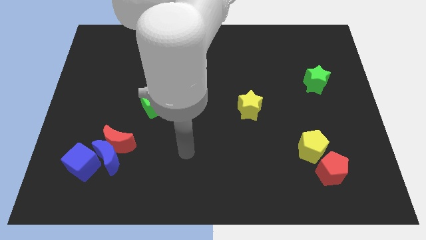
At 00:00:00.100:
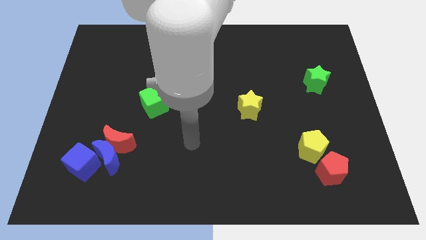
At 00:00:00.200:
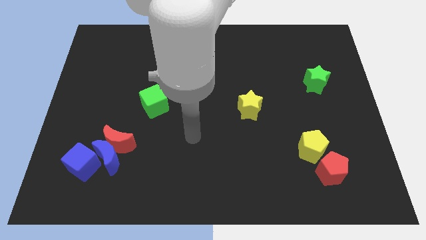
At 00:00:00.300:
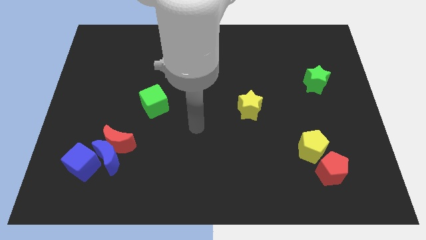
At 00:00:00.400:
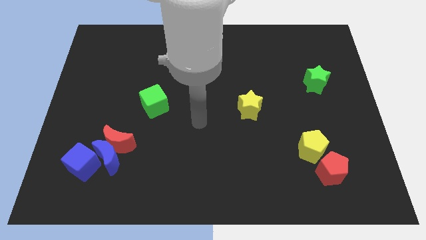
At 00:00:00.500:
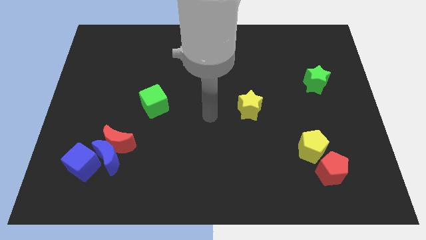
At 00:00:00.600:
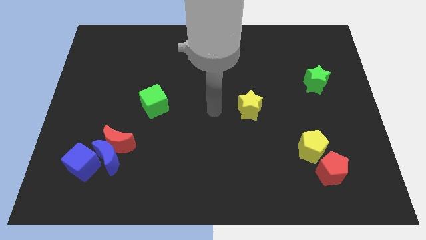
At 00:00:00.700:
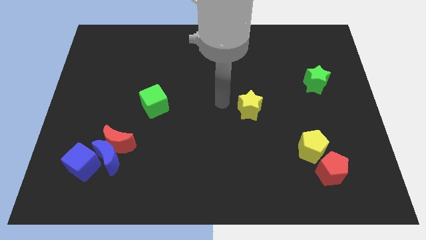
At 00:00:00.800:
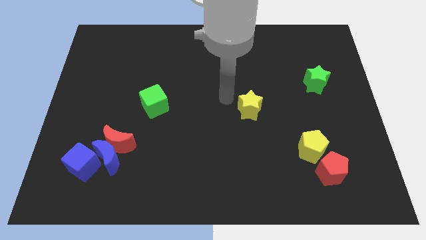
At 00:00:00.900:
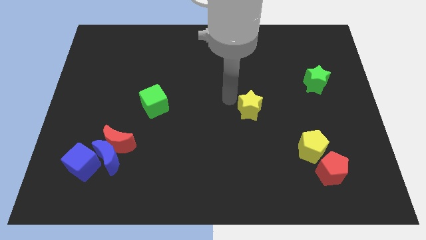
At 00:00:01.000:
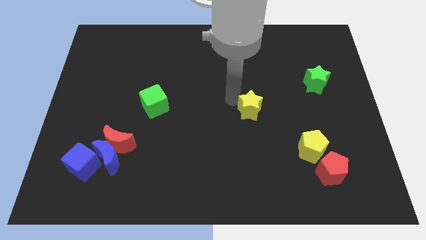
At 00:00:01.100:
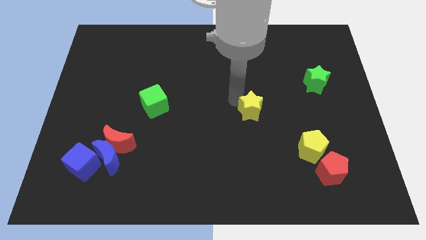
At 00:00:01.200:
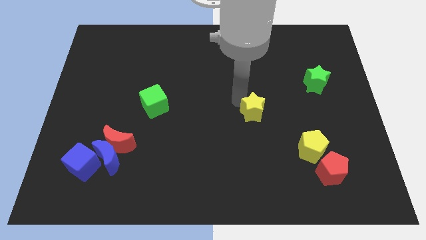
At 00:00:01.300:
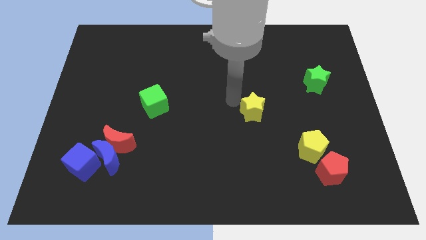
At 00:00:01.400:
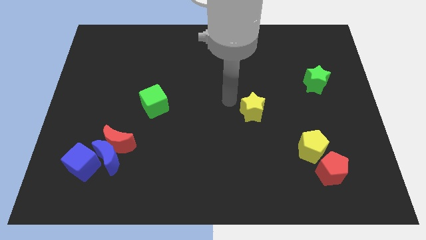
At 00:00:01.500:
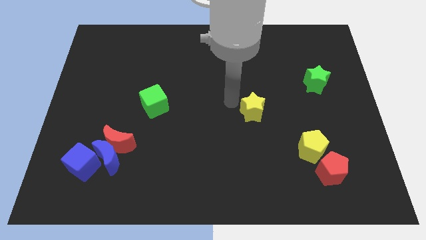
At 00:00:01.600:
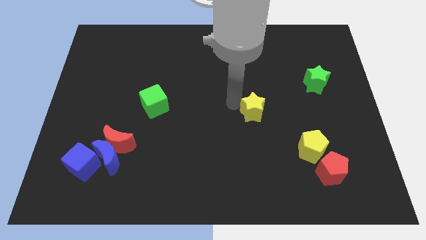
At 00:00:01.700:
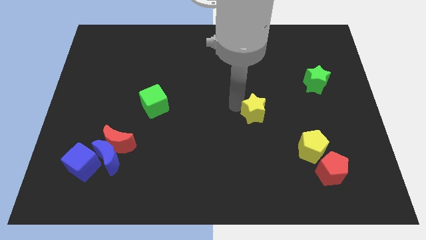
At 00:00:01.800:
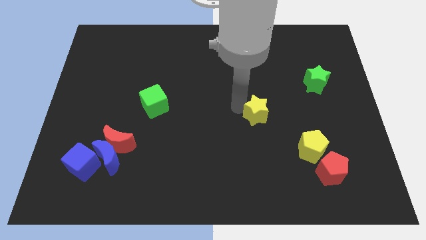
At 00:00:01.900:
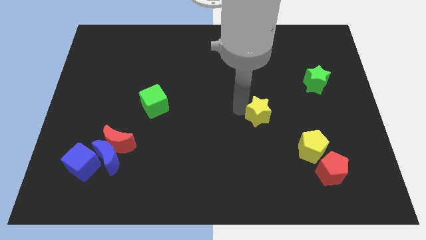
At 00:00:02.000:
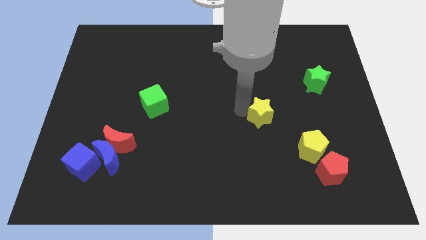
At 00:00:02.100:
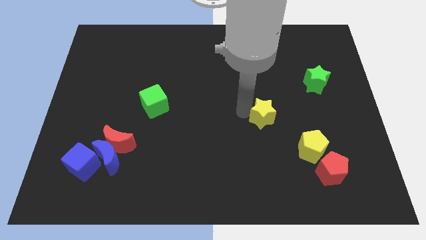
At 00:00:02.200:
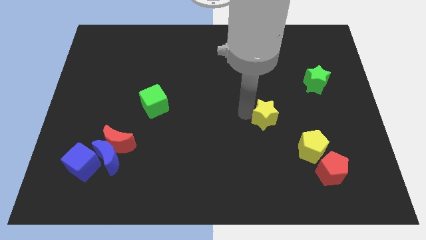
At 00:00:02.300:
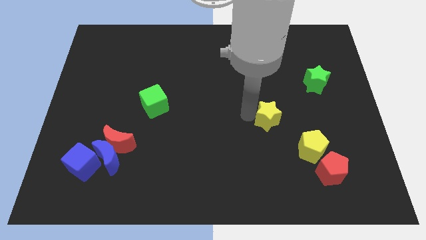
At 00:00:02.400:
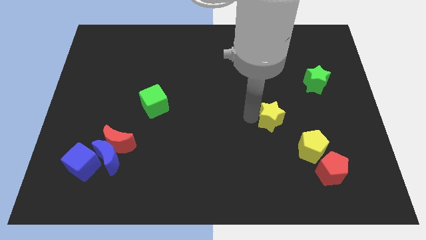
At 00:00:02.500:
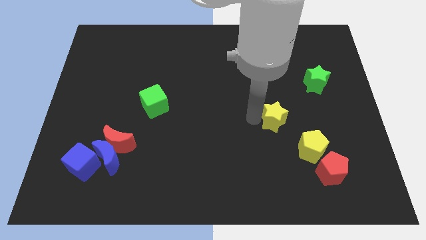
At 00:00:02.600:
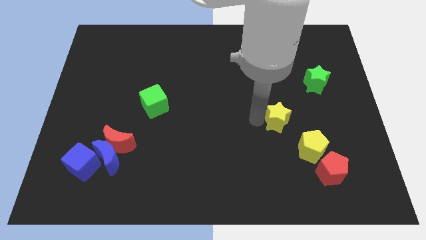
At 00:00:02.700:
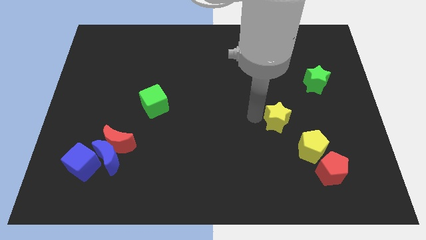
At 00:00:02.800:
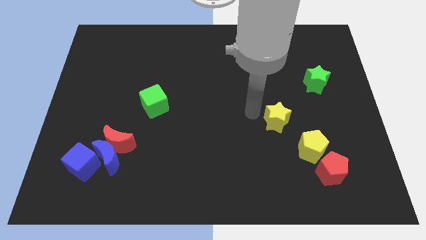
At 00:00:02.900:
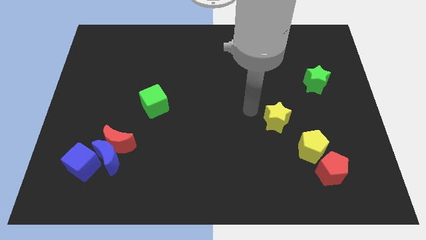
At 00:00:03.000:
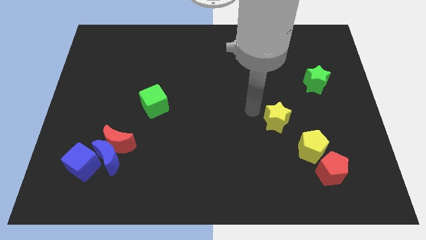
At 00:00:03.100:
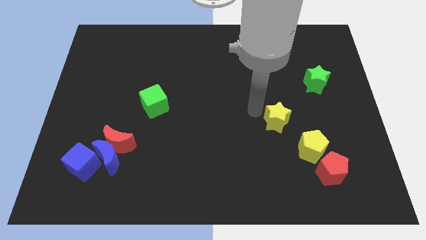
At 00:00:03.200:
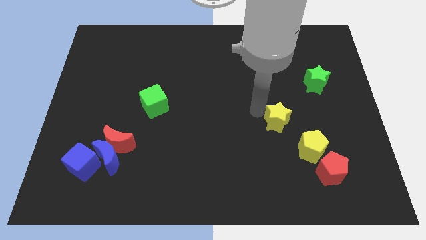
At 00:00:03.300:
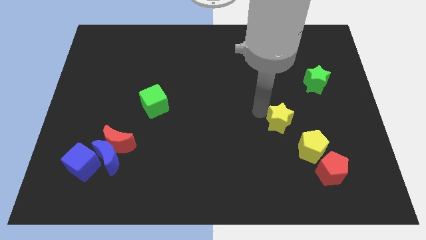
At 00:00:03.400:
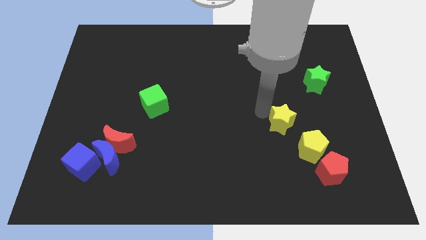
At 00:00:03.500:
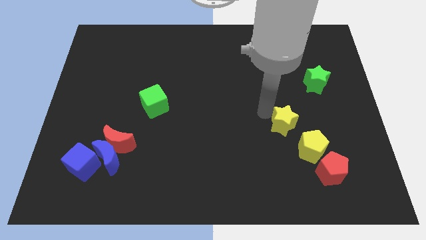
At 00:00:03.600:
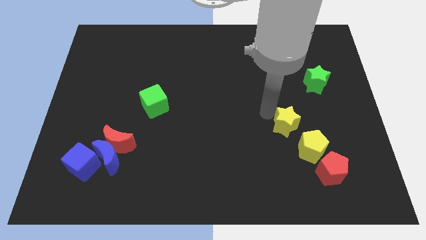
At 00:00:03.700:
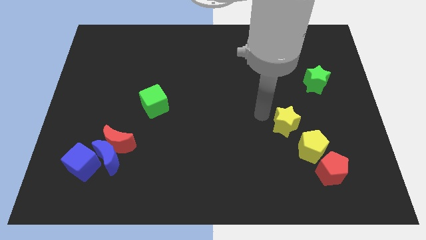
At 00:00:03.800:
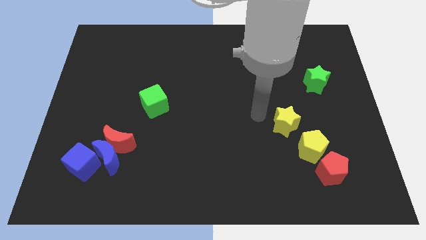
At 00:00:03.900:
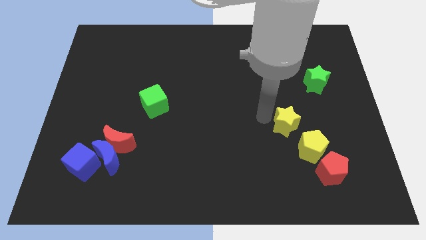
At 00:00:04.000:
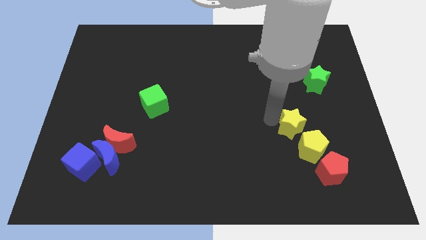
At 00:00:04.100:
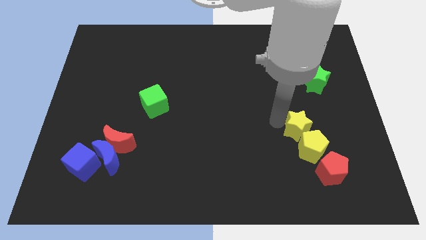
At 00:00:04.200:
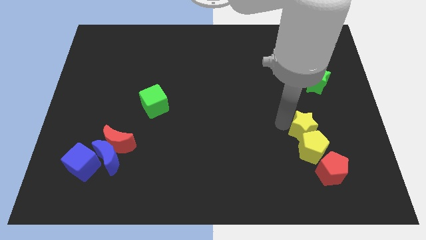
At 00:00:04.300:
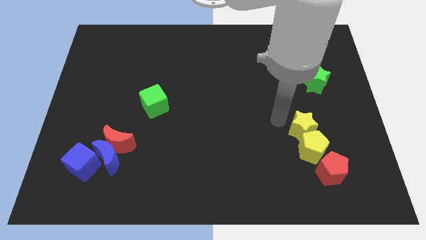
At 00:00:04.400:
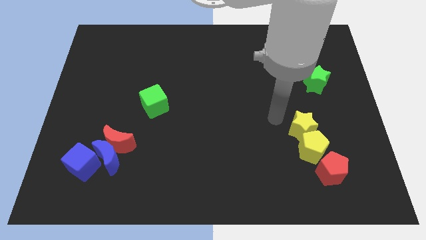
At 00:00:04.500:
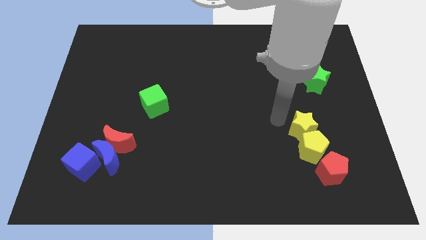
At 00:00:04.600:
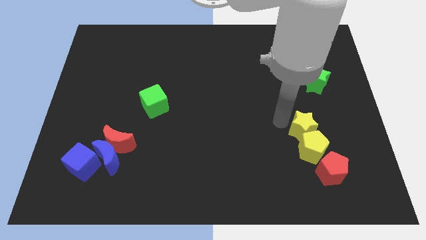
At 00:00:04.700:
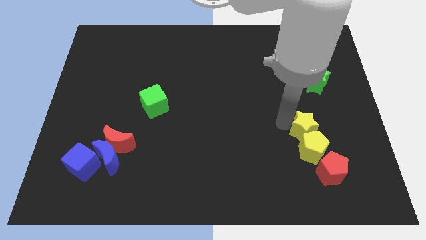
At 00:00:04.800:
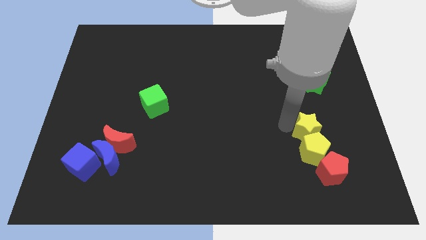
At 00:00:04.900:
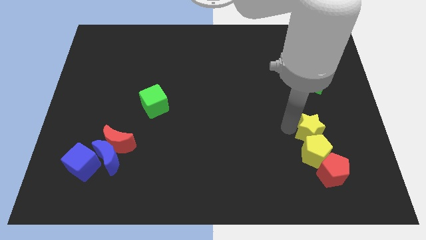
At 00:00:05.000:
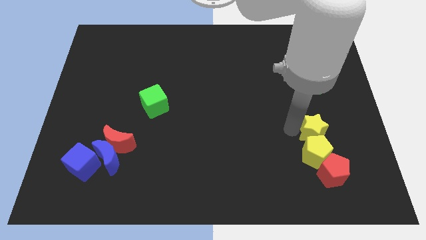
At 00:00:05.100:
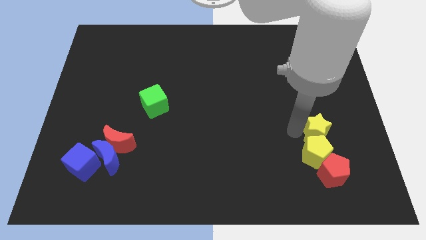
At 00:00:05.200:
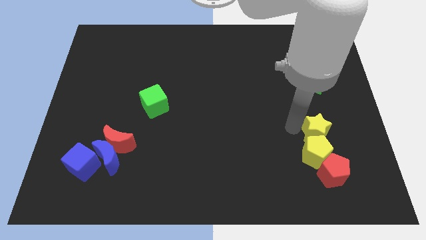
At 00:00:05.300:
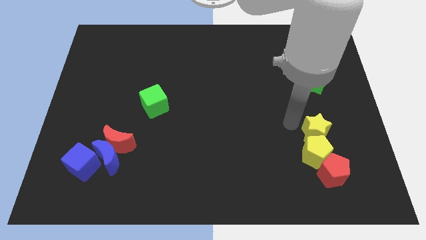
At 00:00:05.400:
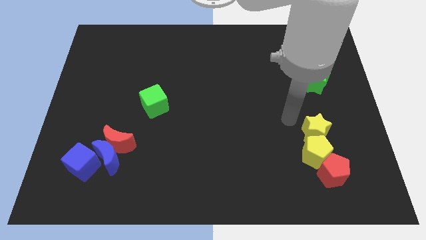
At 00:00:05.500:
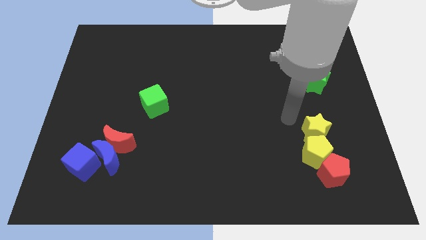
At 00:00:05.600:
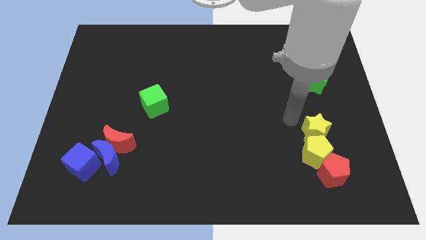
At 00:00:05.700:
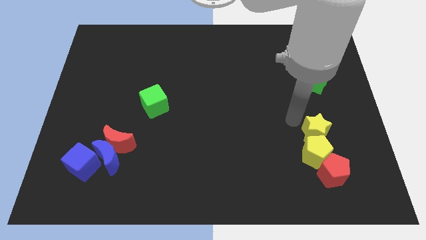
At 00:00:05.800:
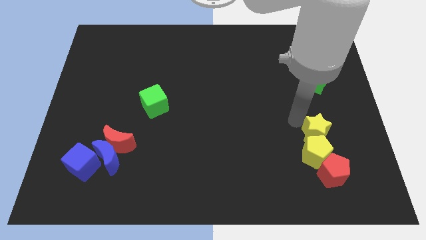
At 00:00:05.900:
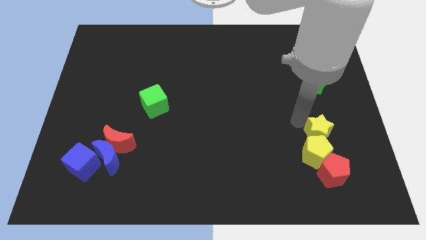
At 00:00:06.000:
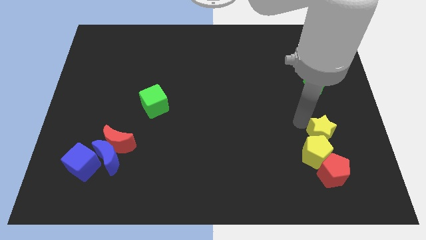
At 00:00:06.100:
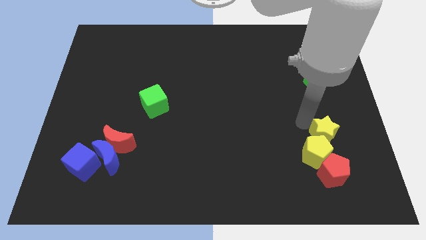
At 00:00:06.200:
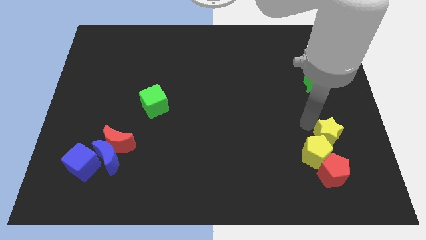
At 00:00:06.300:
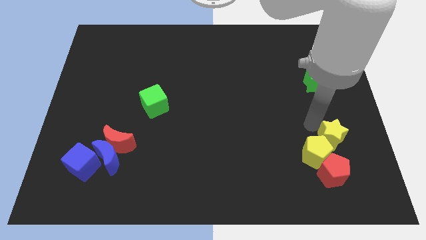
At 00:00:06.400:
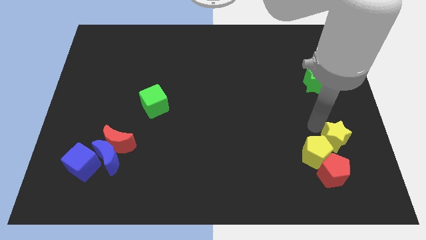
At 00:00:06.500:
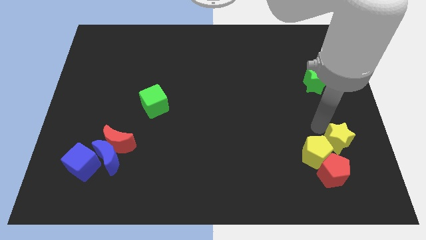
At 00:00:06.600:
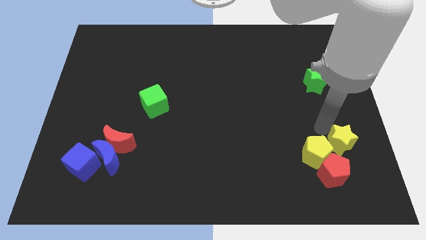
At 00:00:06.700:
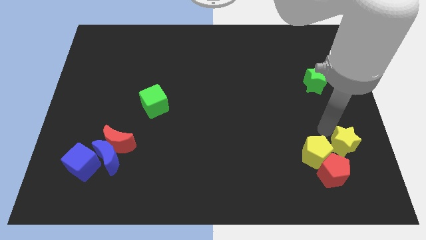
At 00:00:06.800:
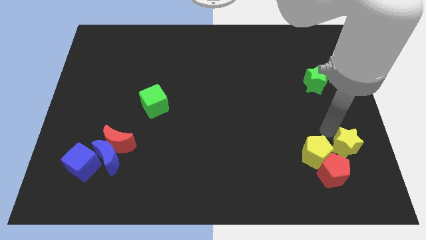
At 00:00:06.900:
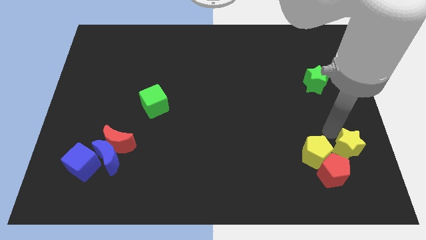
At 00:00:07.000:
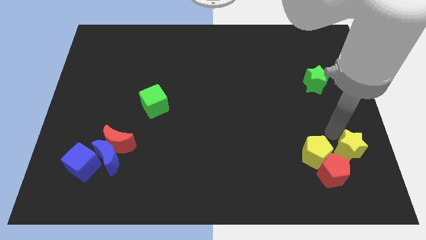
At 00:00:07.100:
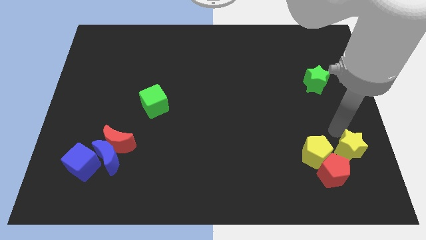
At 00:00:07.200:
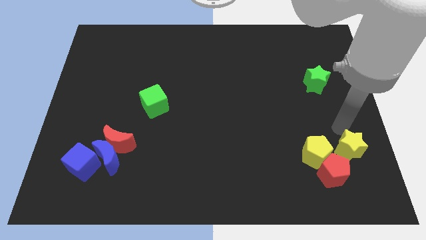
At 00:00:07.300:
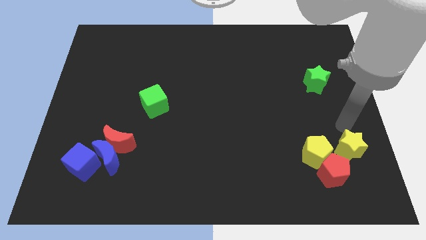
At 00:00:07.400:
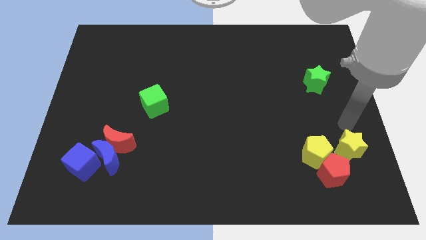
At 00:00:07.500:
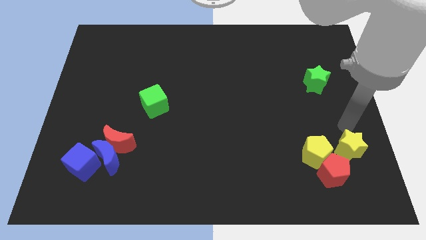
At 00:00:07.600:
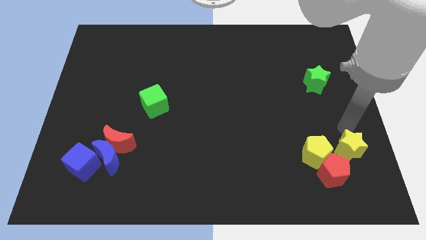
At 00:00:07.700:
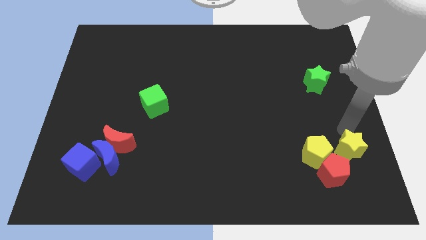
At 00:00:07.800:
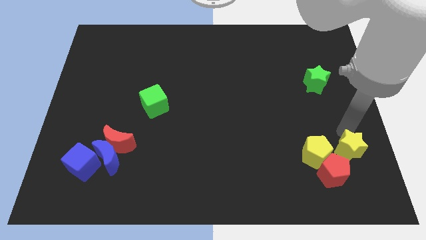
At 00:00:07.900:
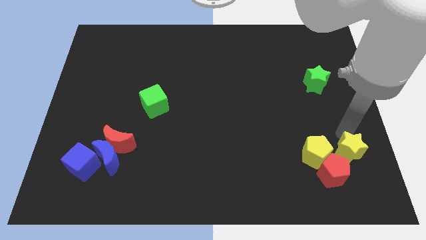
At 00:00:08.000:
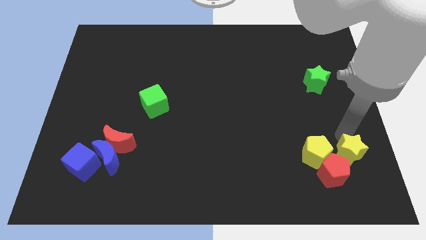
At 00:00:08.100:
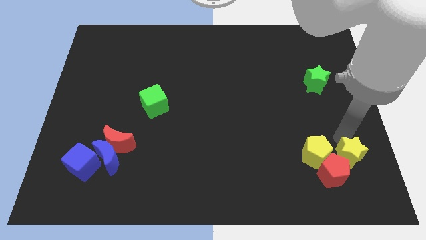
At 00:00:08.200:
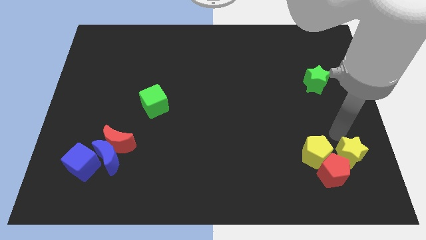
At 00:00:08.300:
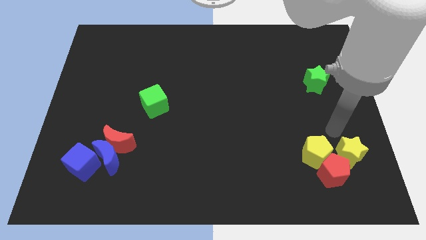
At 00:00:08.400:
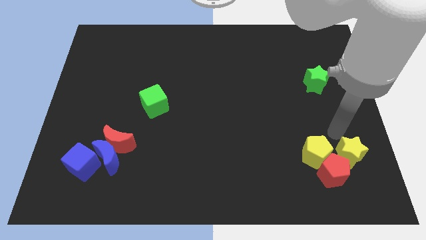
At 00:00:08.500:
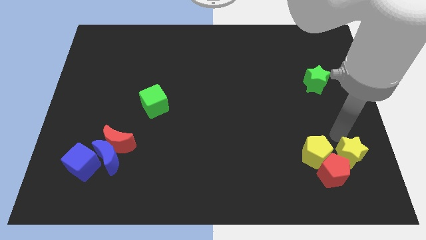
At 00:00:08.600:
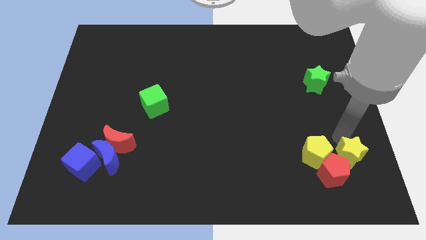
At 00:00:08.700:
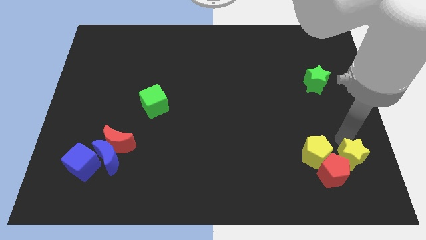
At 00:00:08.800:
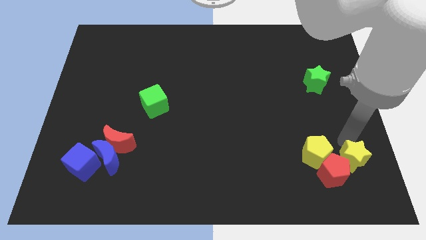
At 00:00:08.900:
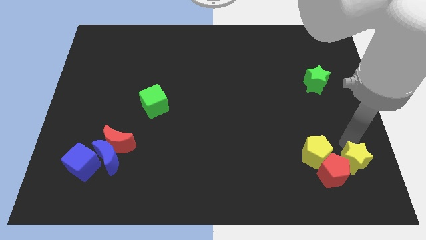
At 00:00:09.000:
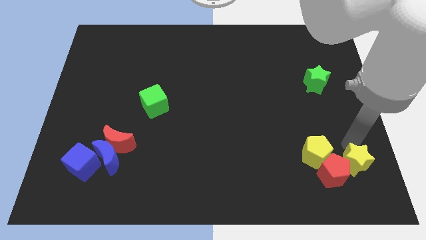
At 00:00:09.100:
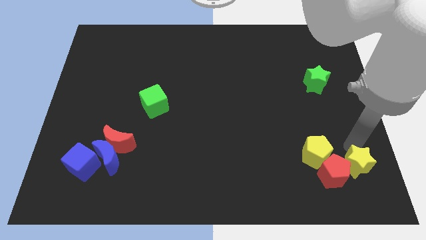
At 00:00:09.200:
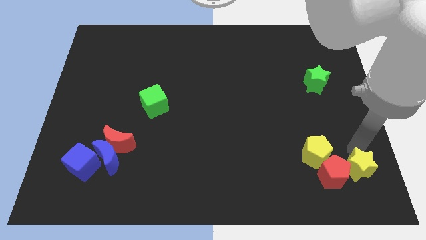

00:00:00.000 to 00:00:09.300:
push the yellow star to the bottom right corner
